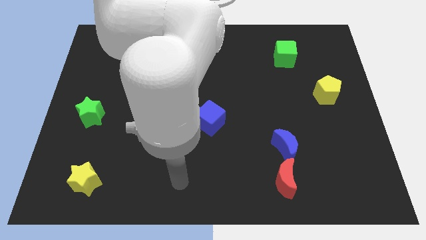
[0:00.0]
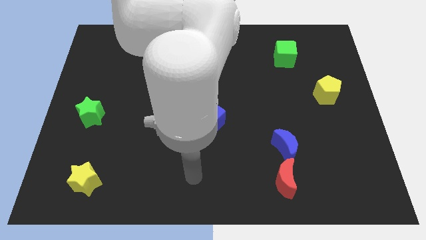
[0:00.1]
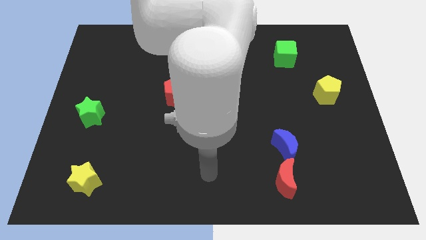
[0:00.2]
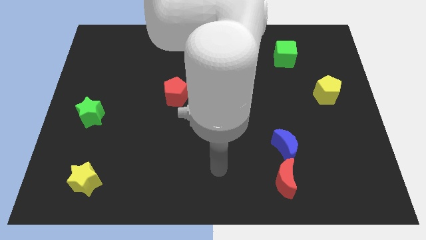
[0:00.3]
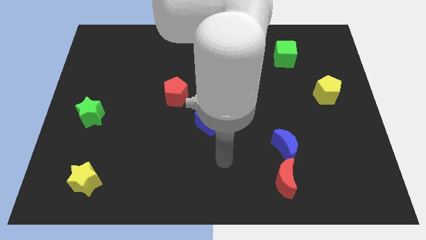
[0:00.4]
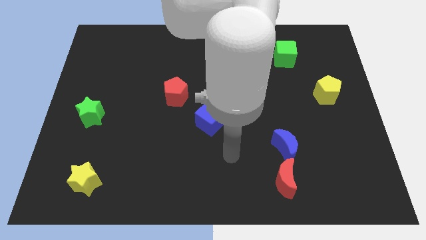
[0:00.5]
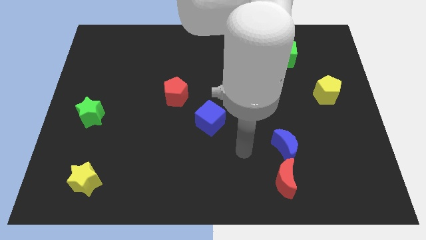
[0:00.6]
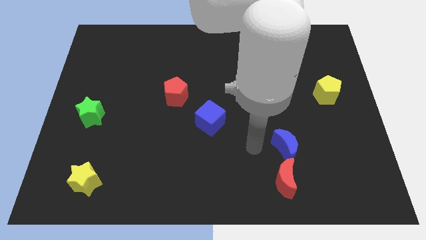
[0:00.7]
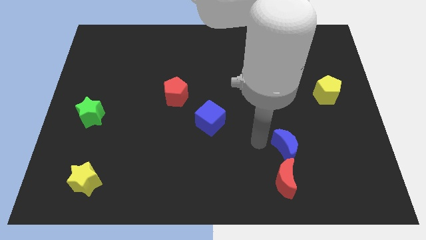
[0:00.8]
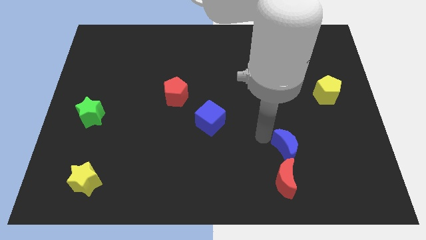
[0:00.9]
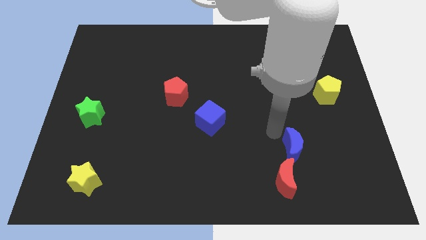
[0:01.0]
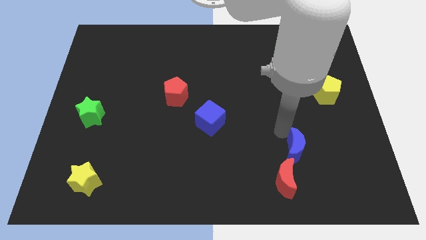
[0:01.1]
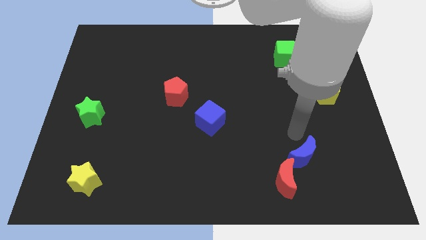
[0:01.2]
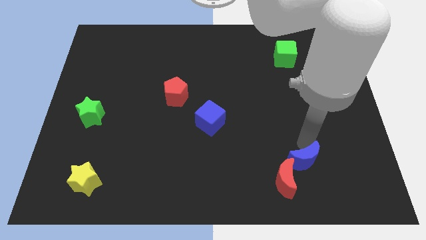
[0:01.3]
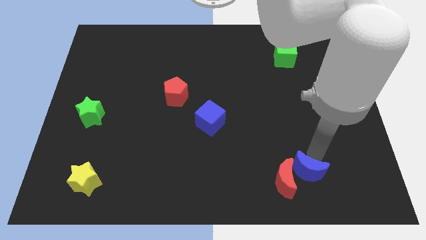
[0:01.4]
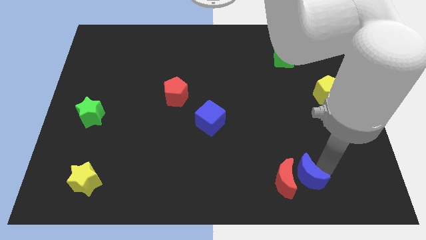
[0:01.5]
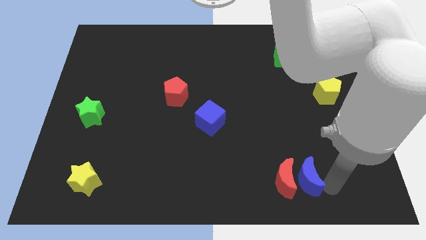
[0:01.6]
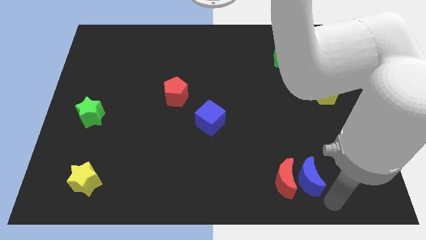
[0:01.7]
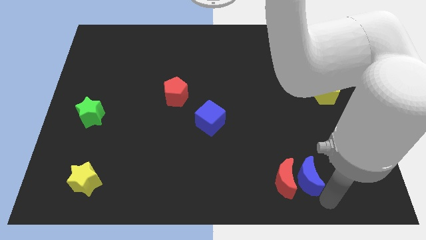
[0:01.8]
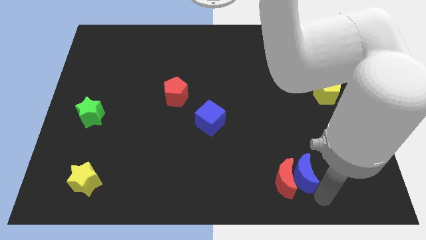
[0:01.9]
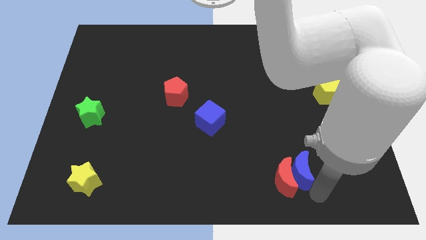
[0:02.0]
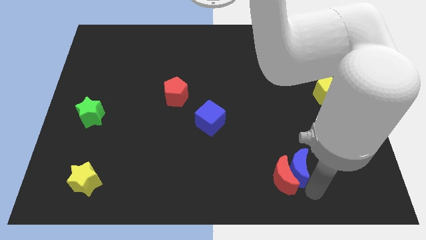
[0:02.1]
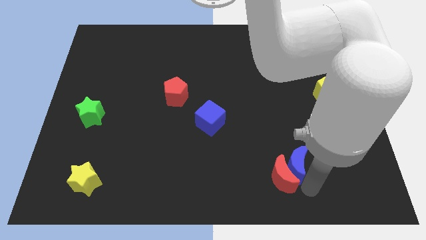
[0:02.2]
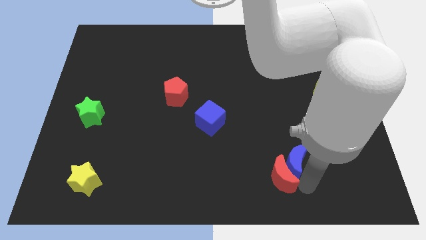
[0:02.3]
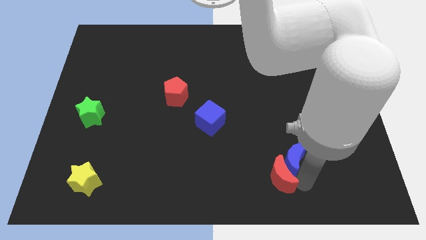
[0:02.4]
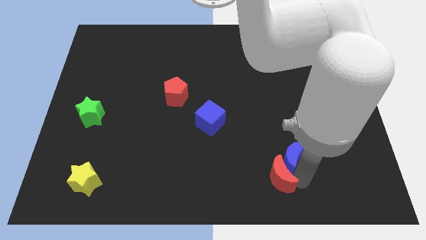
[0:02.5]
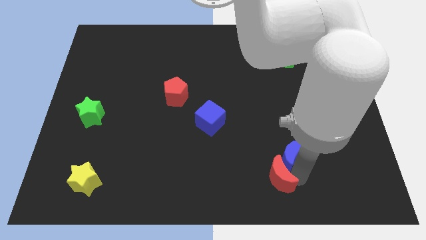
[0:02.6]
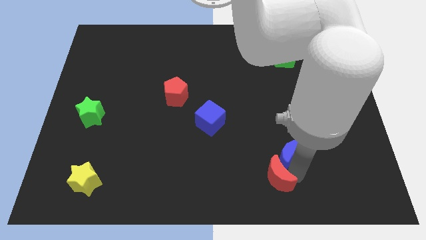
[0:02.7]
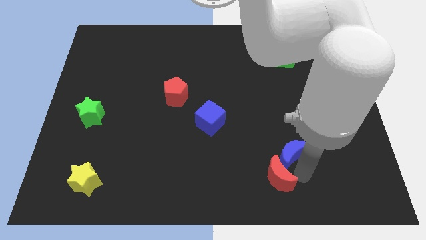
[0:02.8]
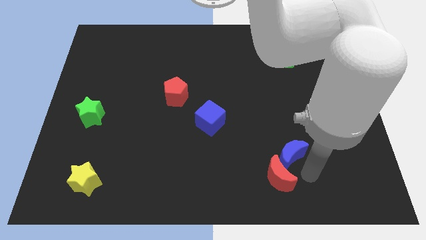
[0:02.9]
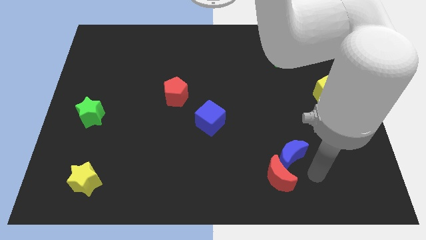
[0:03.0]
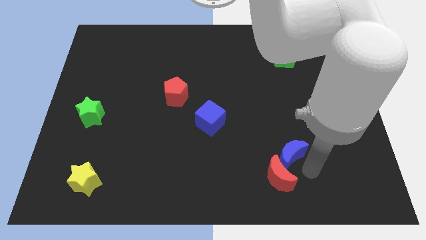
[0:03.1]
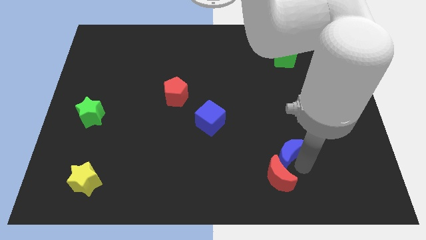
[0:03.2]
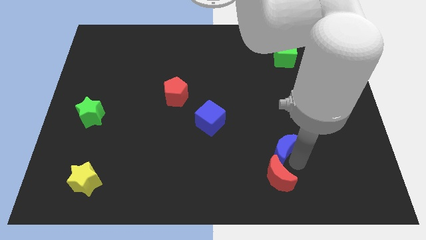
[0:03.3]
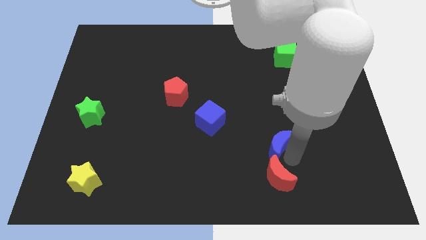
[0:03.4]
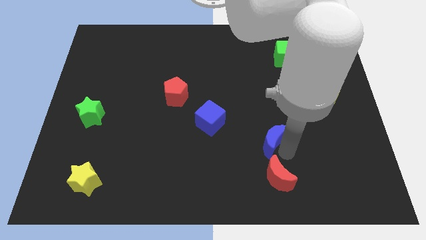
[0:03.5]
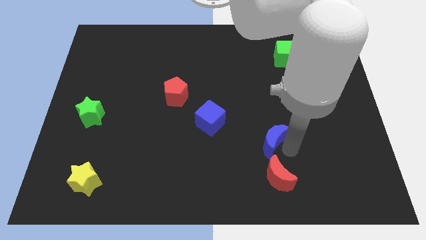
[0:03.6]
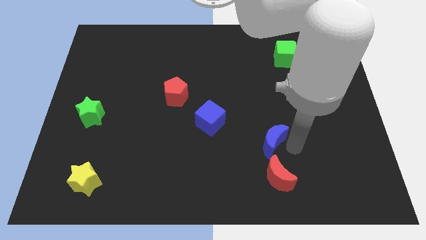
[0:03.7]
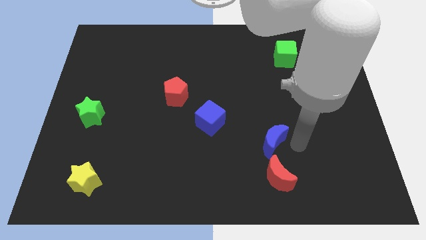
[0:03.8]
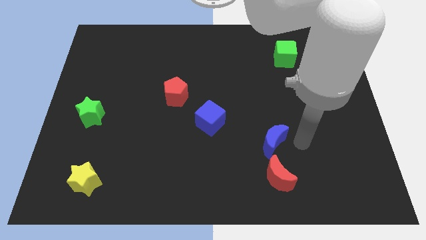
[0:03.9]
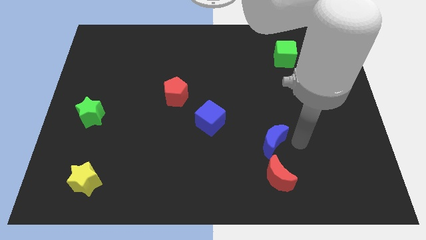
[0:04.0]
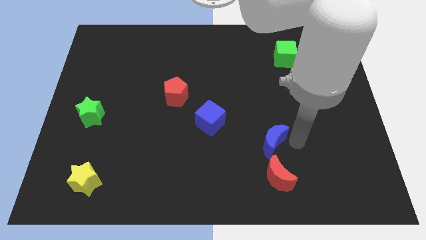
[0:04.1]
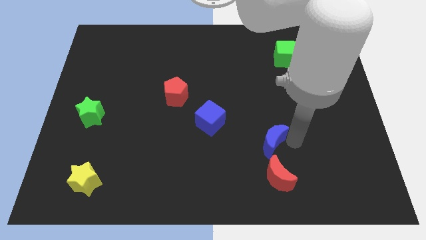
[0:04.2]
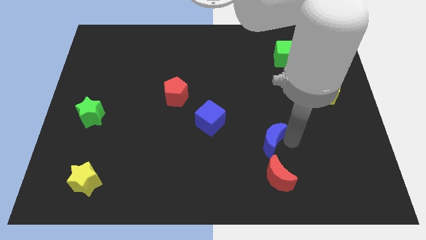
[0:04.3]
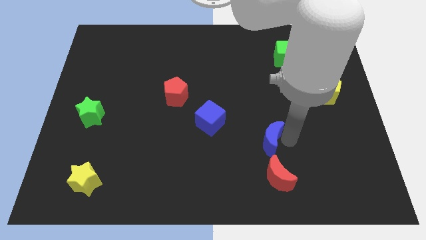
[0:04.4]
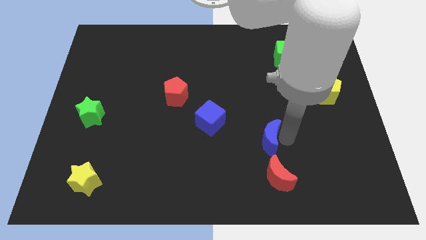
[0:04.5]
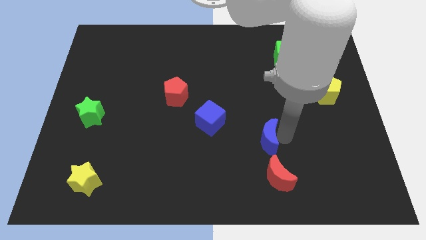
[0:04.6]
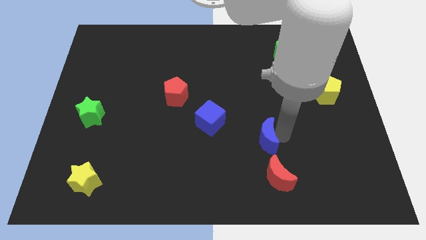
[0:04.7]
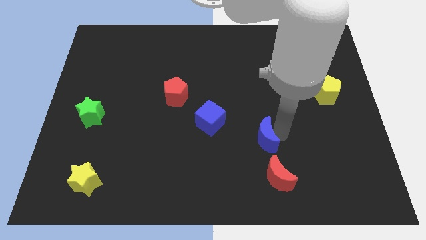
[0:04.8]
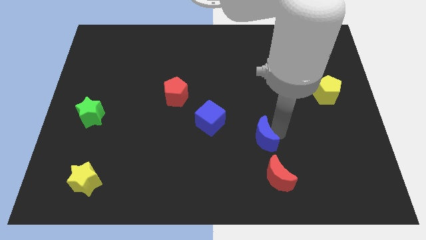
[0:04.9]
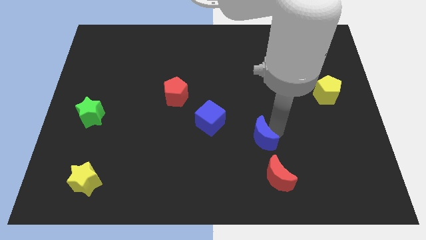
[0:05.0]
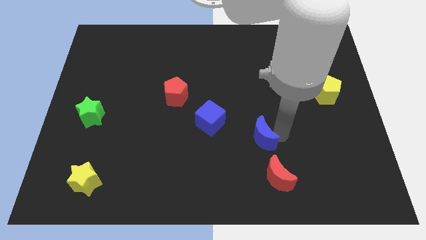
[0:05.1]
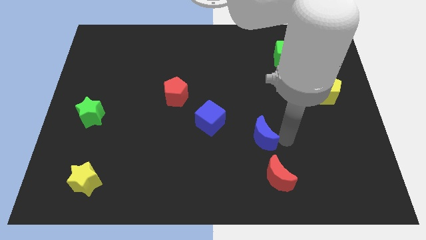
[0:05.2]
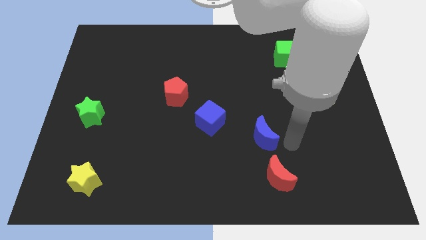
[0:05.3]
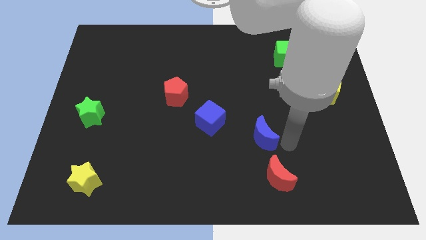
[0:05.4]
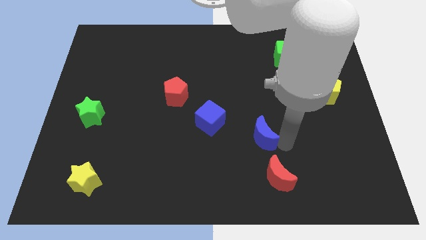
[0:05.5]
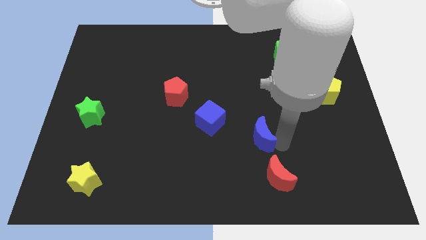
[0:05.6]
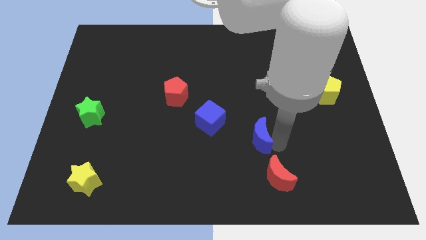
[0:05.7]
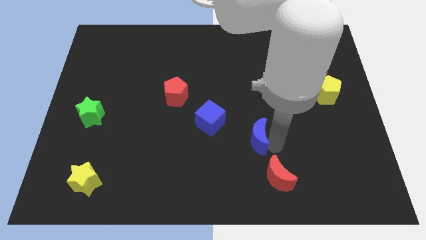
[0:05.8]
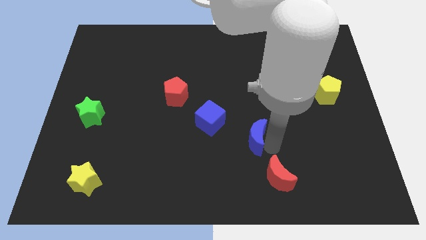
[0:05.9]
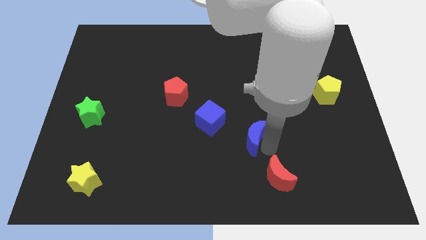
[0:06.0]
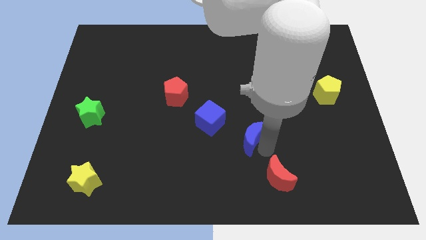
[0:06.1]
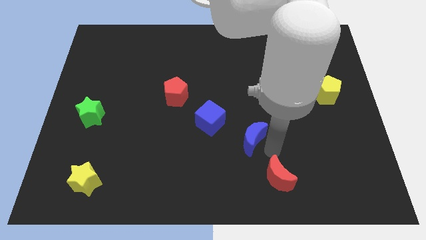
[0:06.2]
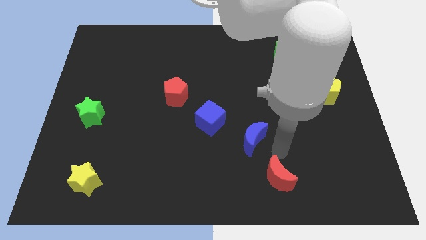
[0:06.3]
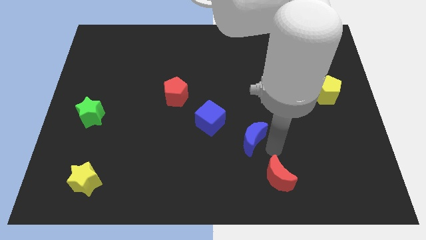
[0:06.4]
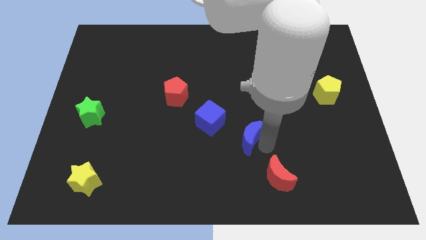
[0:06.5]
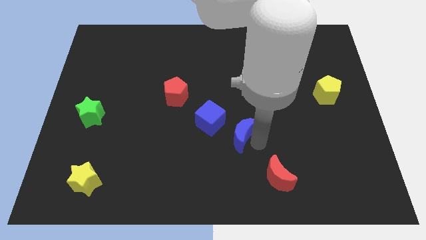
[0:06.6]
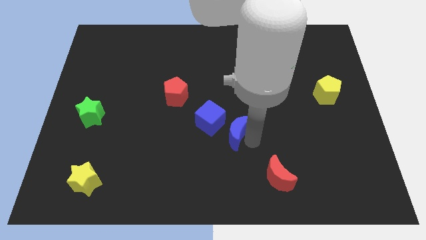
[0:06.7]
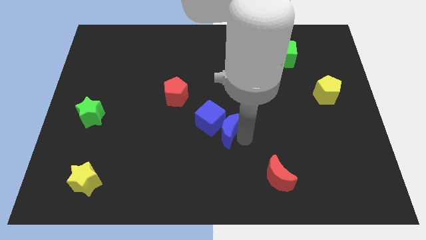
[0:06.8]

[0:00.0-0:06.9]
move the blue moon next to the blue cube
